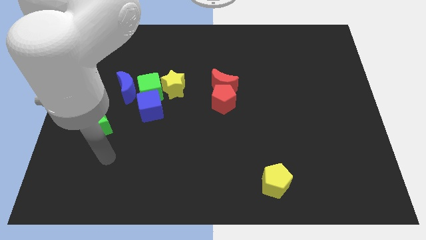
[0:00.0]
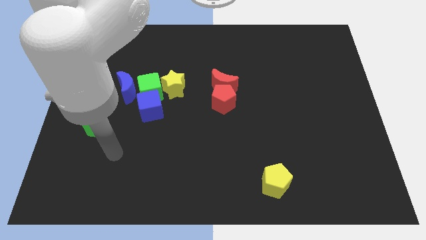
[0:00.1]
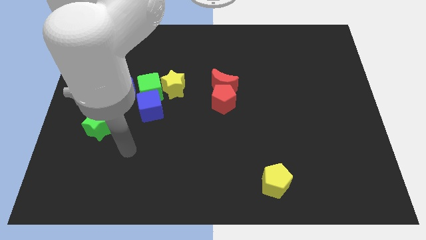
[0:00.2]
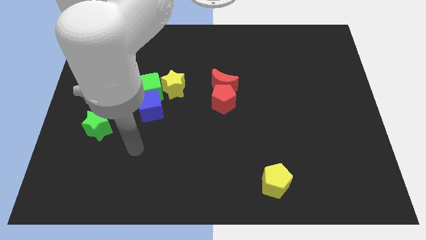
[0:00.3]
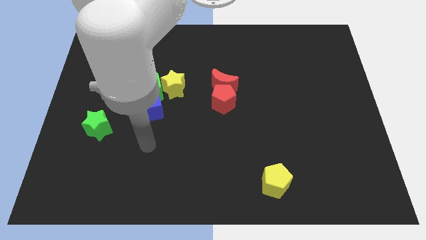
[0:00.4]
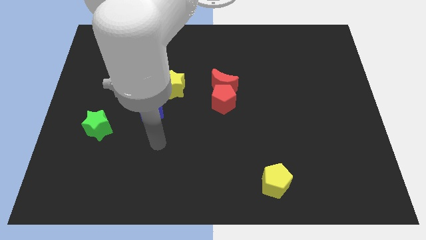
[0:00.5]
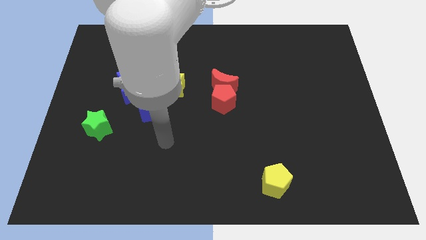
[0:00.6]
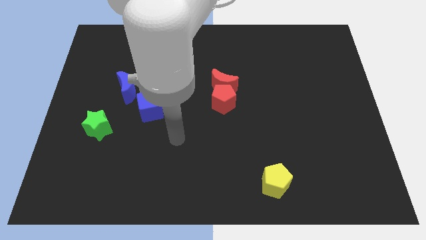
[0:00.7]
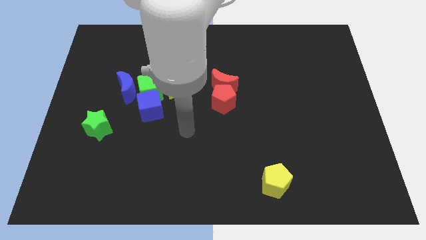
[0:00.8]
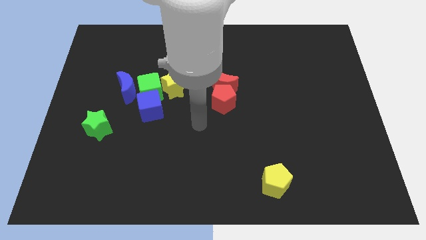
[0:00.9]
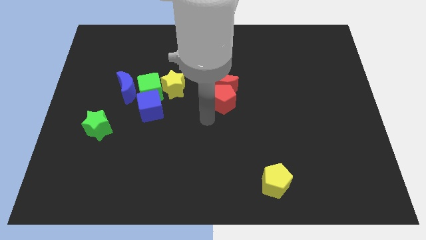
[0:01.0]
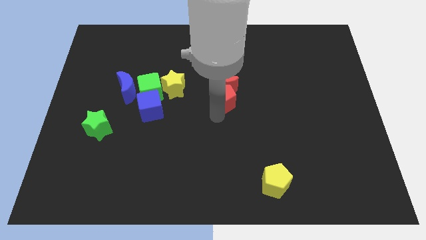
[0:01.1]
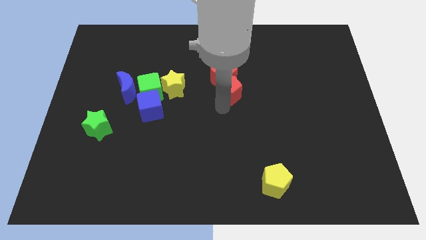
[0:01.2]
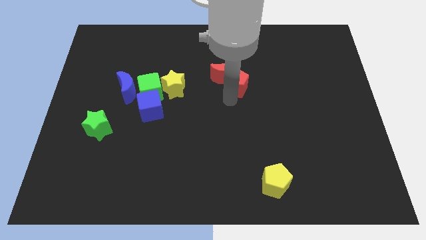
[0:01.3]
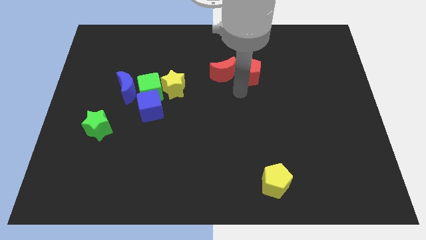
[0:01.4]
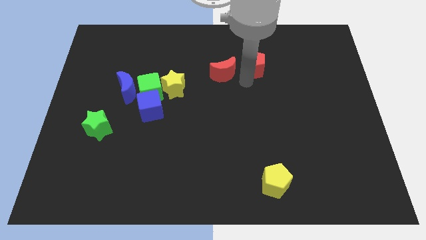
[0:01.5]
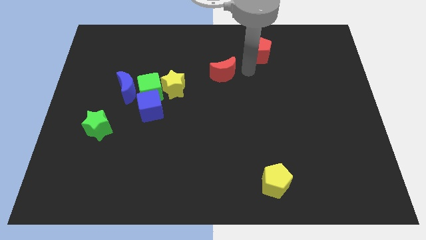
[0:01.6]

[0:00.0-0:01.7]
separate the red moon from the red pentagon

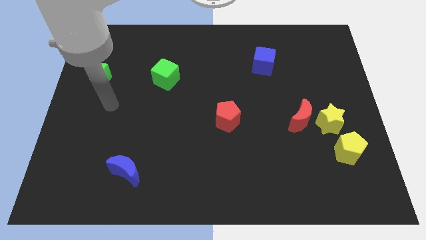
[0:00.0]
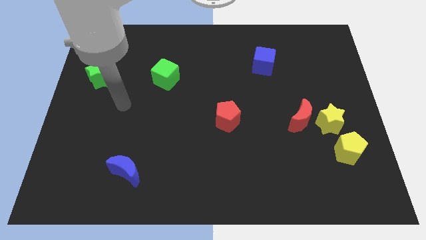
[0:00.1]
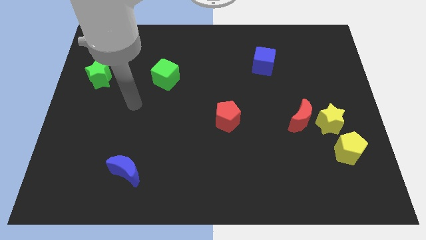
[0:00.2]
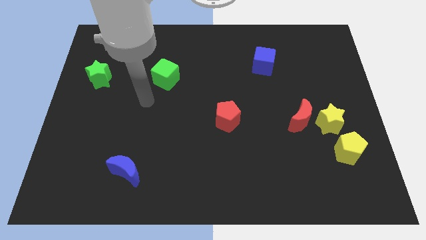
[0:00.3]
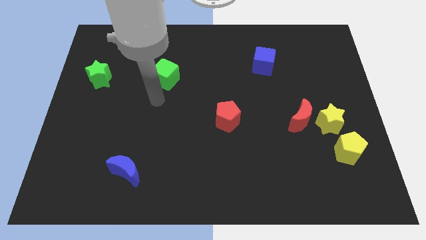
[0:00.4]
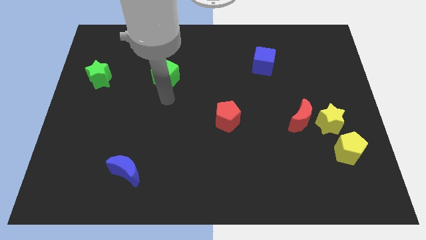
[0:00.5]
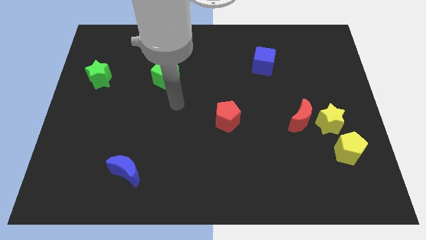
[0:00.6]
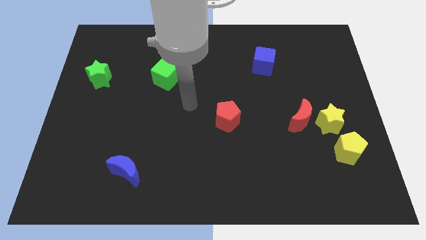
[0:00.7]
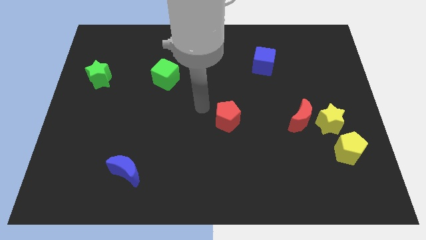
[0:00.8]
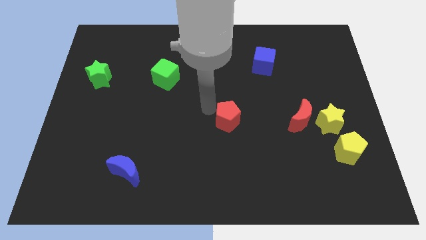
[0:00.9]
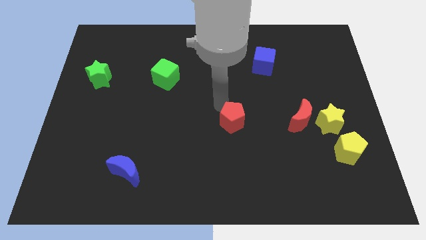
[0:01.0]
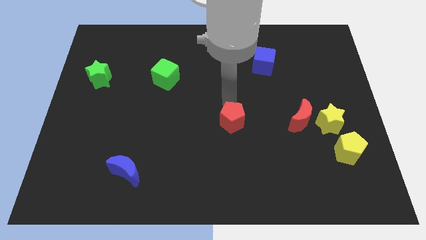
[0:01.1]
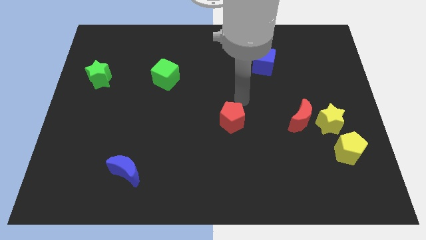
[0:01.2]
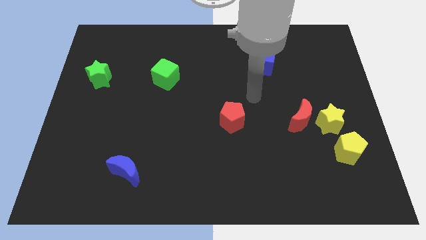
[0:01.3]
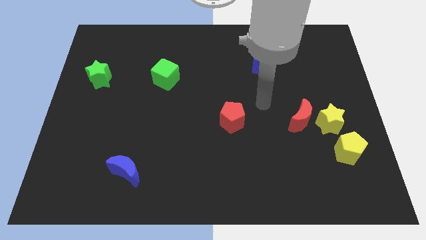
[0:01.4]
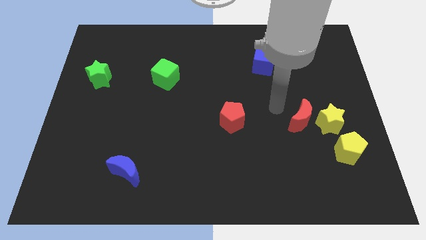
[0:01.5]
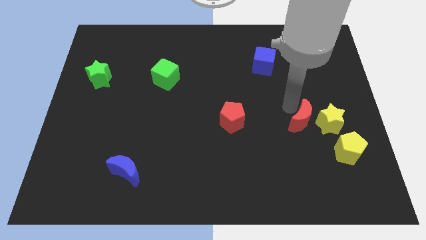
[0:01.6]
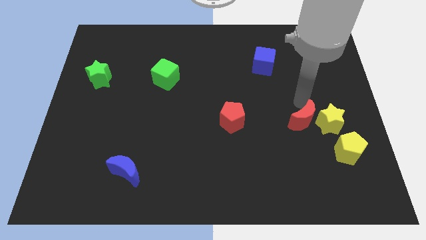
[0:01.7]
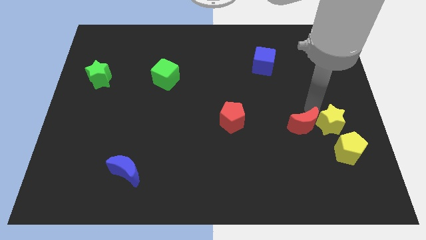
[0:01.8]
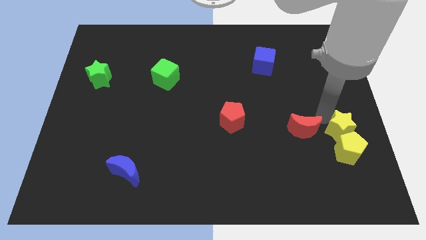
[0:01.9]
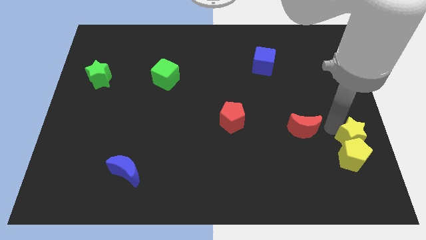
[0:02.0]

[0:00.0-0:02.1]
pull the red moon apart from the yellow star

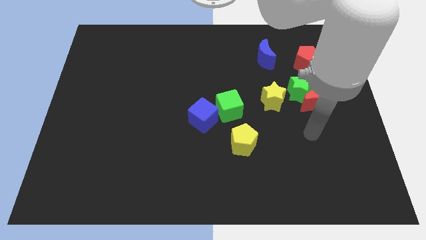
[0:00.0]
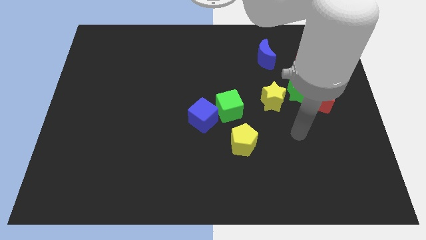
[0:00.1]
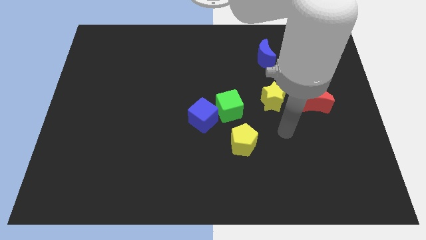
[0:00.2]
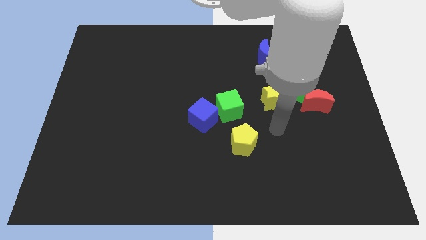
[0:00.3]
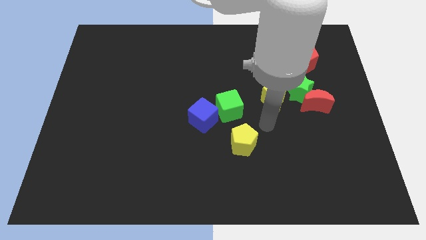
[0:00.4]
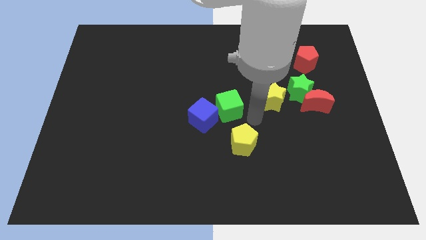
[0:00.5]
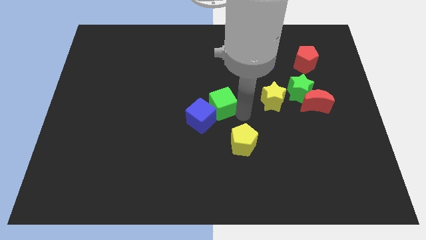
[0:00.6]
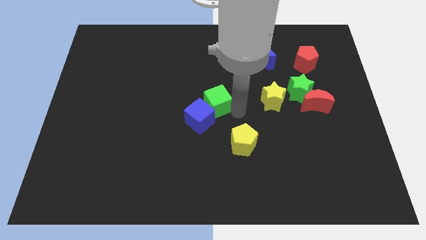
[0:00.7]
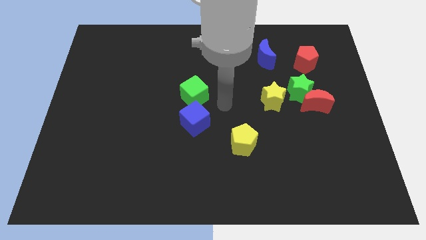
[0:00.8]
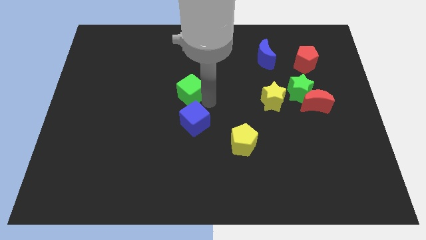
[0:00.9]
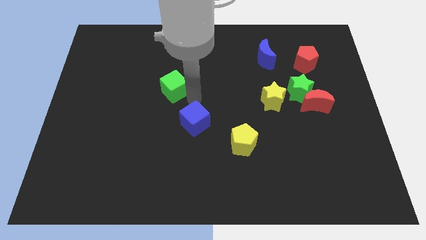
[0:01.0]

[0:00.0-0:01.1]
move the blue cube away from the green cube

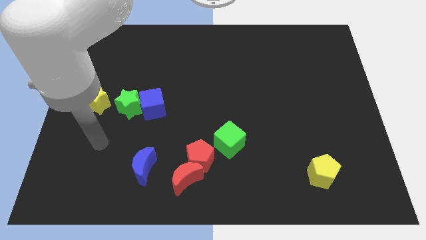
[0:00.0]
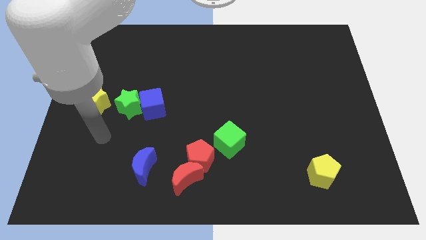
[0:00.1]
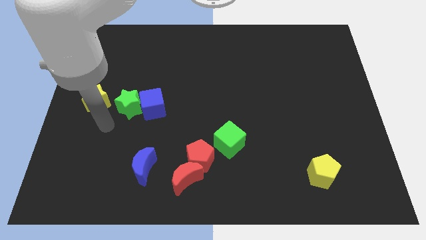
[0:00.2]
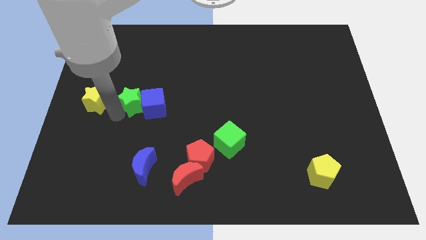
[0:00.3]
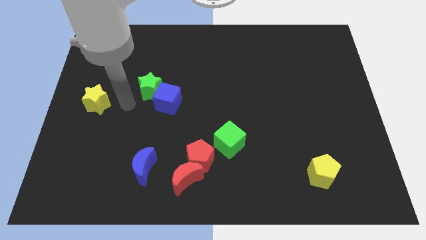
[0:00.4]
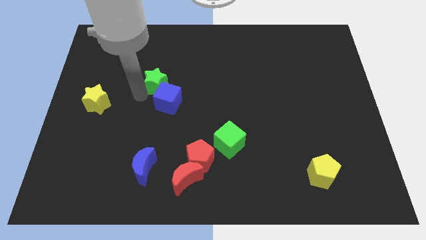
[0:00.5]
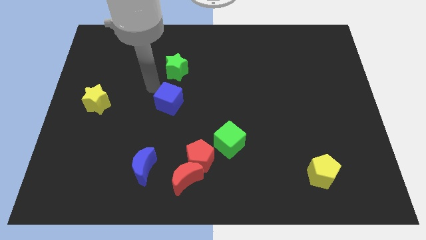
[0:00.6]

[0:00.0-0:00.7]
move the blue cube away from the green star

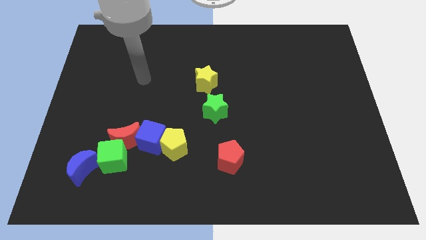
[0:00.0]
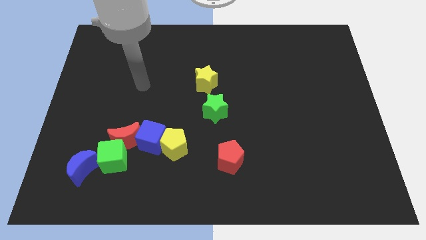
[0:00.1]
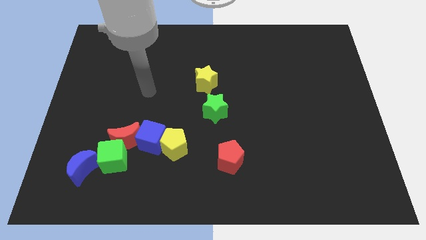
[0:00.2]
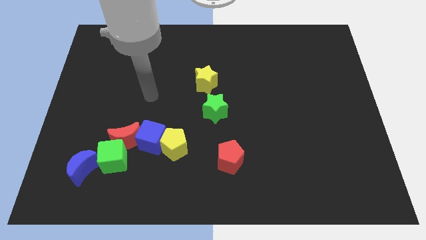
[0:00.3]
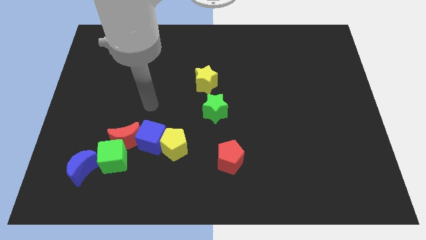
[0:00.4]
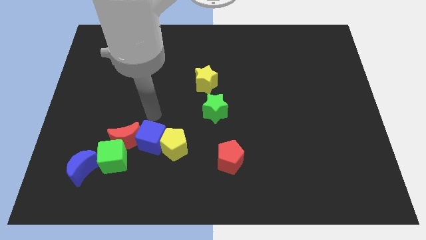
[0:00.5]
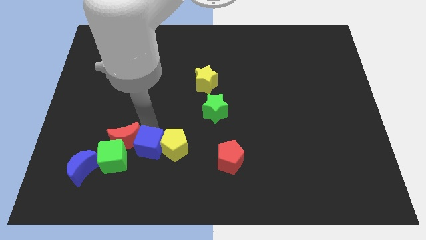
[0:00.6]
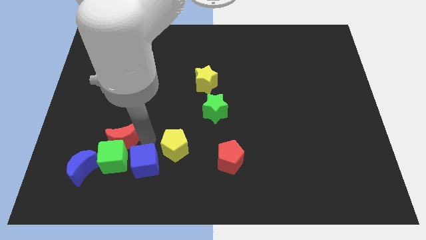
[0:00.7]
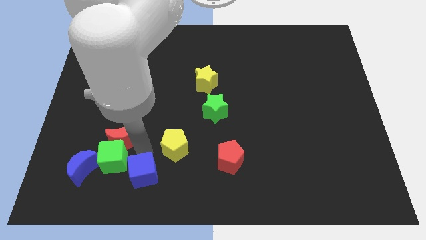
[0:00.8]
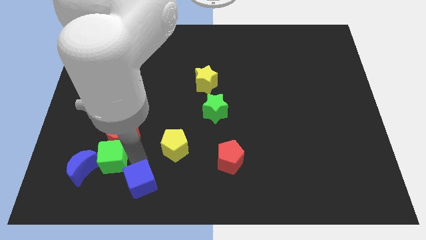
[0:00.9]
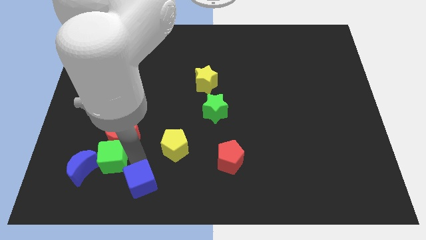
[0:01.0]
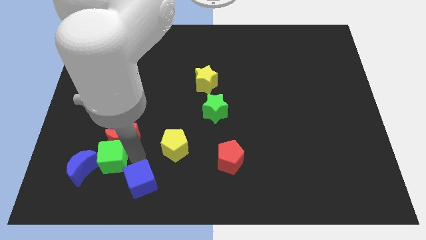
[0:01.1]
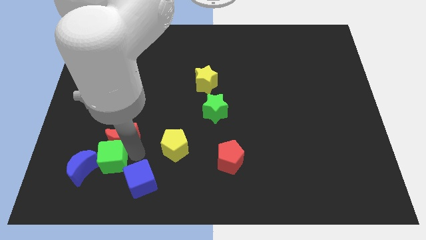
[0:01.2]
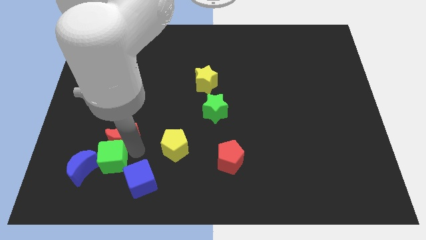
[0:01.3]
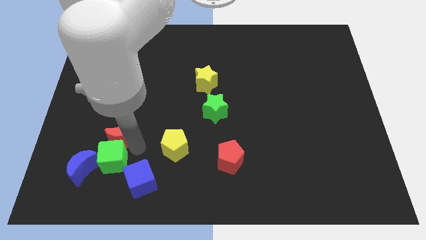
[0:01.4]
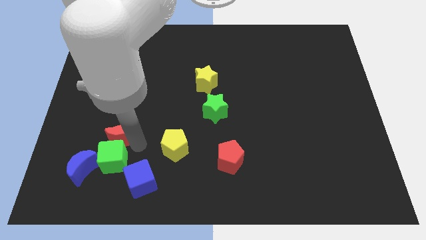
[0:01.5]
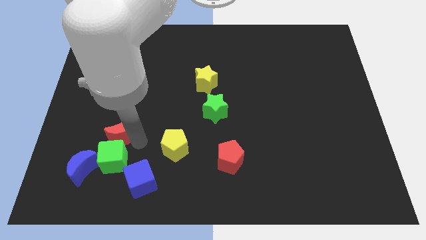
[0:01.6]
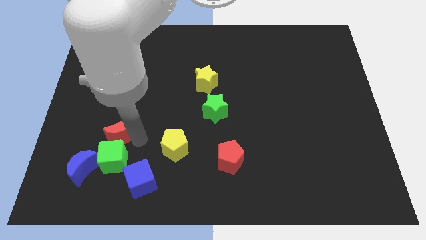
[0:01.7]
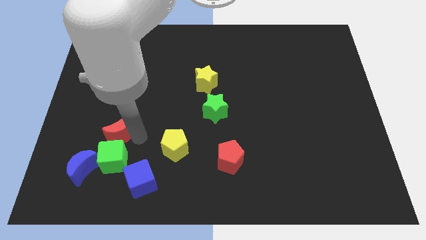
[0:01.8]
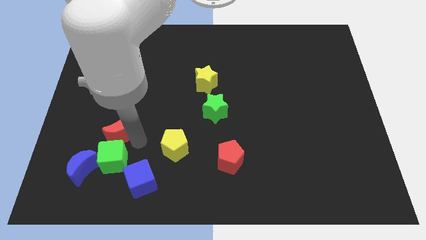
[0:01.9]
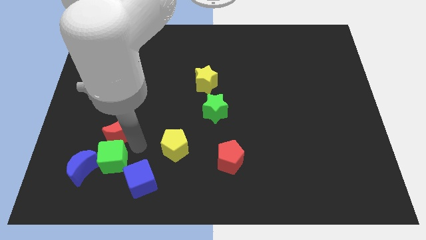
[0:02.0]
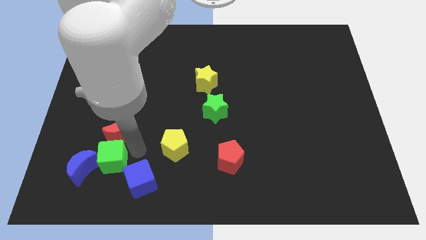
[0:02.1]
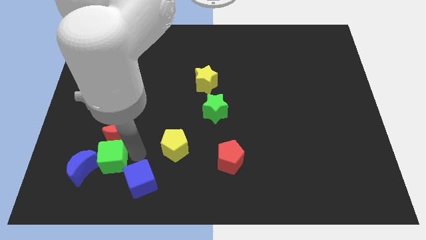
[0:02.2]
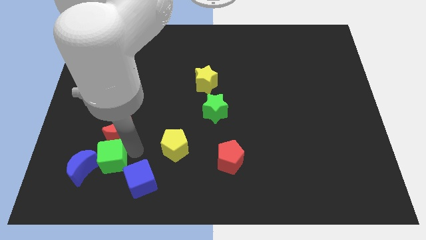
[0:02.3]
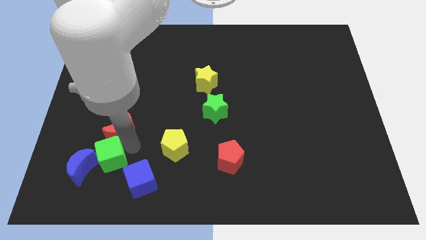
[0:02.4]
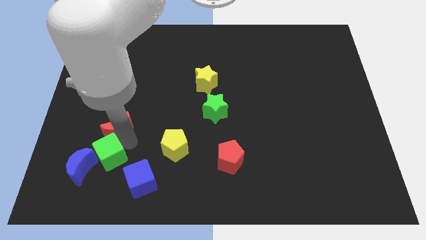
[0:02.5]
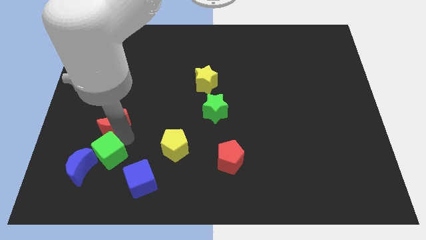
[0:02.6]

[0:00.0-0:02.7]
separate the red moon from the green cube and blue cube

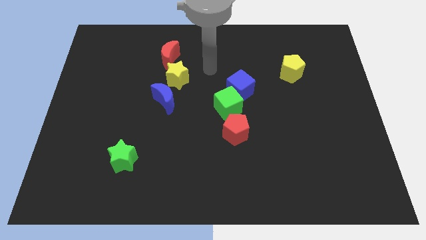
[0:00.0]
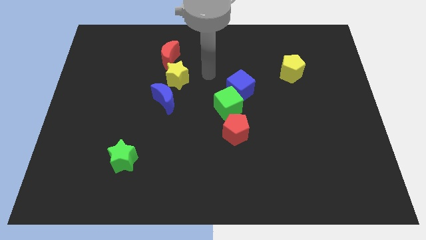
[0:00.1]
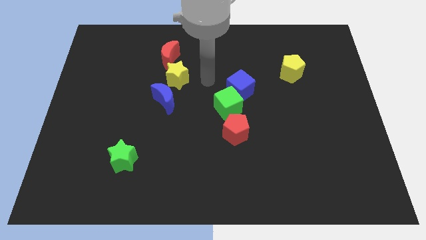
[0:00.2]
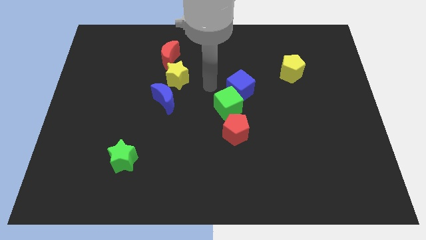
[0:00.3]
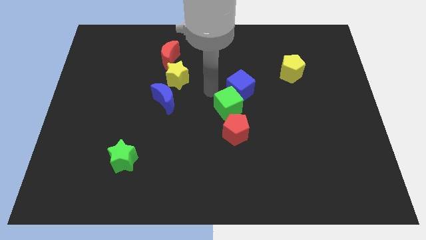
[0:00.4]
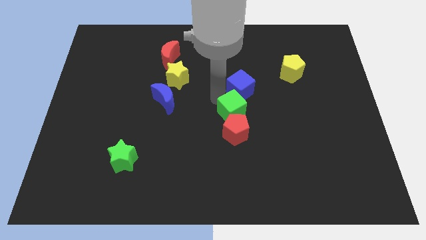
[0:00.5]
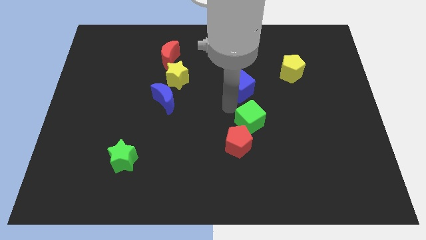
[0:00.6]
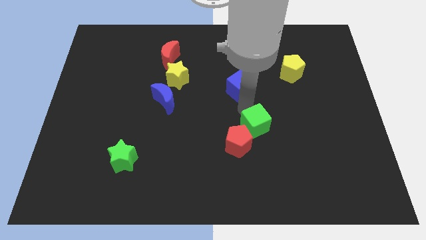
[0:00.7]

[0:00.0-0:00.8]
separate the blue cube from the green cube
